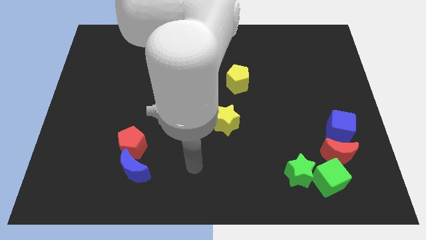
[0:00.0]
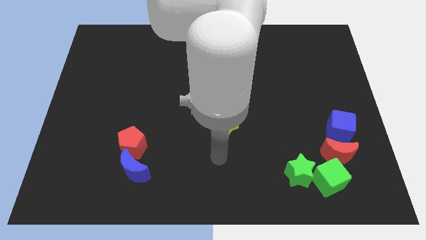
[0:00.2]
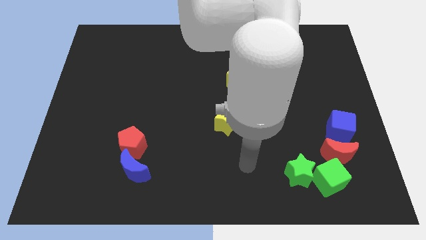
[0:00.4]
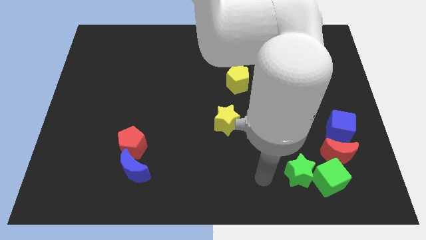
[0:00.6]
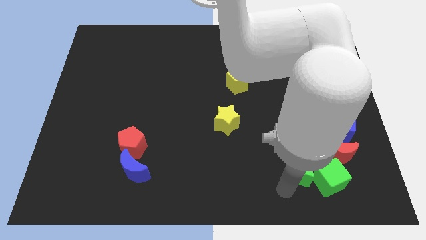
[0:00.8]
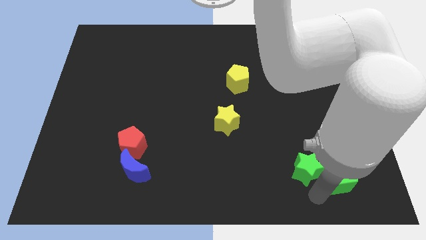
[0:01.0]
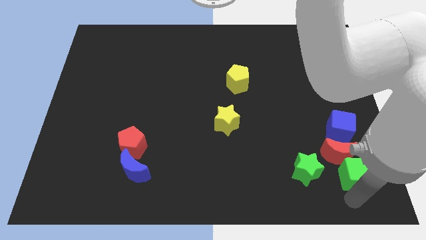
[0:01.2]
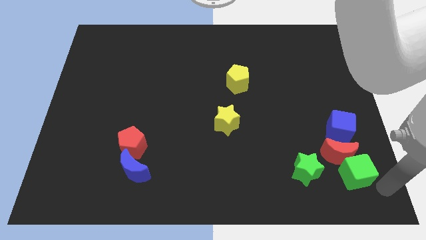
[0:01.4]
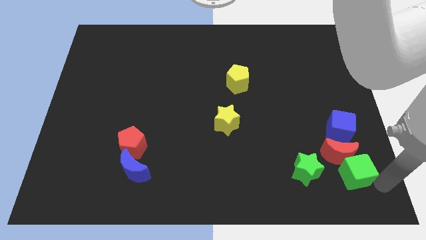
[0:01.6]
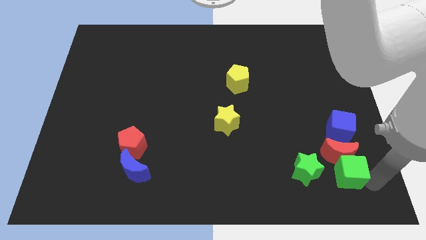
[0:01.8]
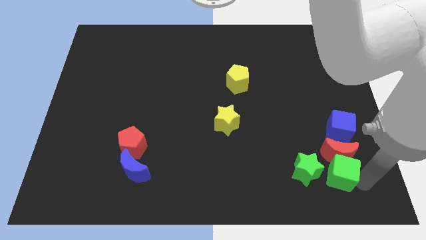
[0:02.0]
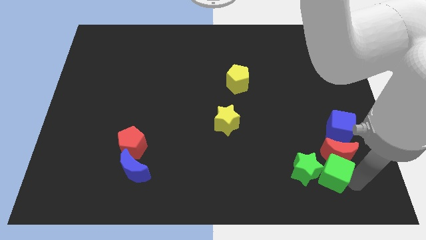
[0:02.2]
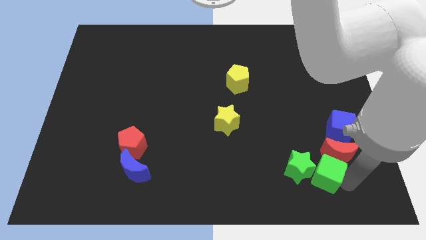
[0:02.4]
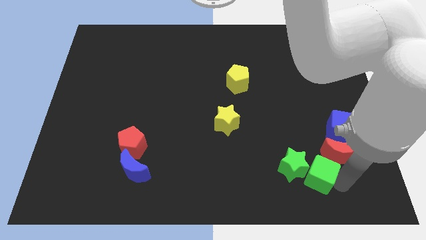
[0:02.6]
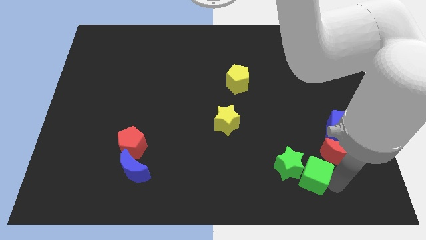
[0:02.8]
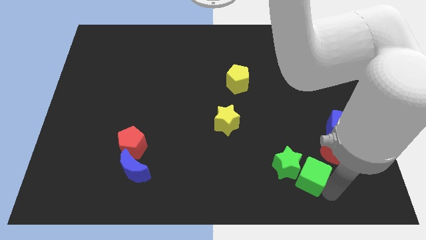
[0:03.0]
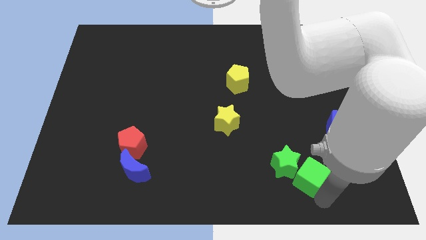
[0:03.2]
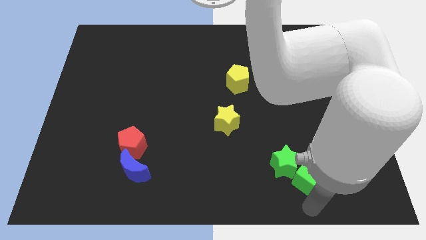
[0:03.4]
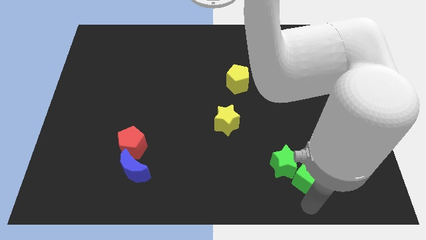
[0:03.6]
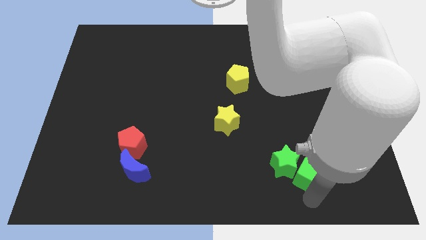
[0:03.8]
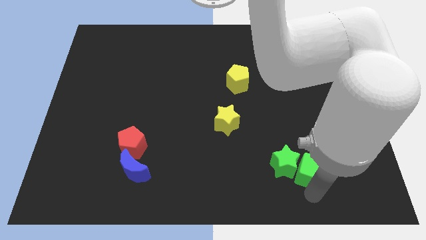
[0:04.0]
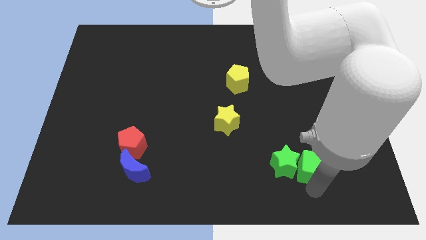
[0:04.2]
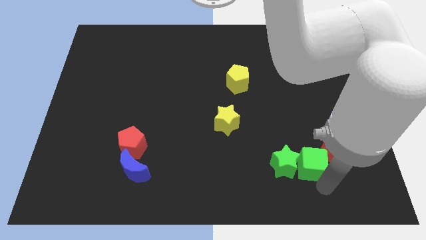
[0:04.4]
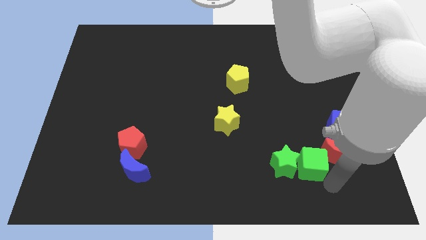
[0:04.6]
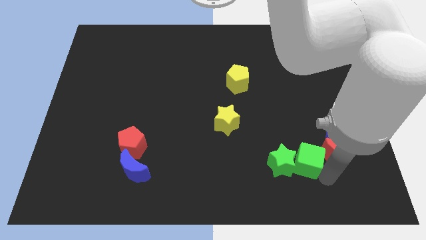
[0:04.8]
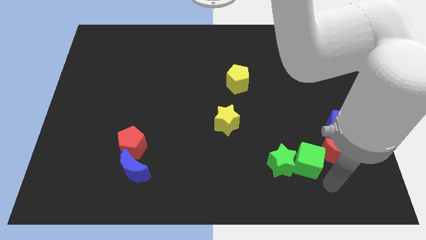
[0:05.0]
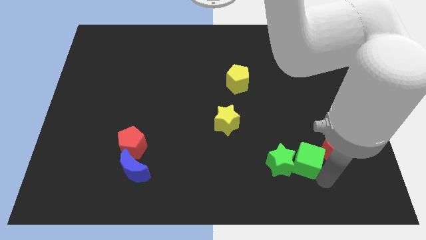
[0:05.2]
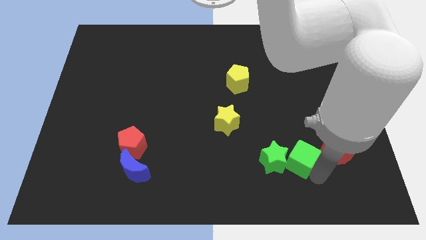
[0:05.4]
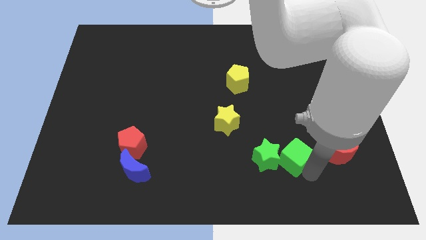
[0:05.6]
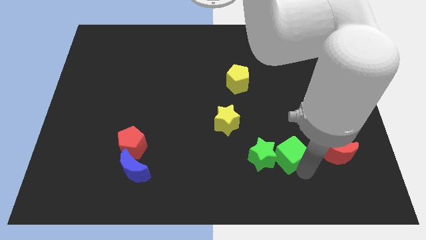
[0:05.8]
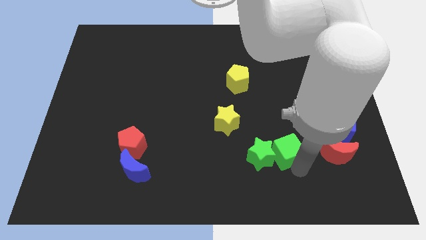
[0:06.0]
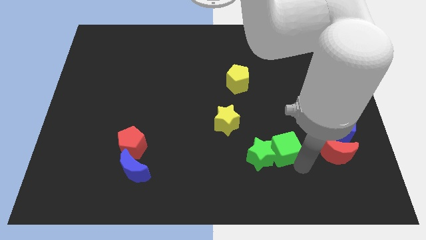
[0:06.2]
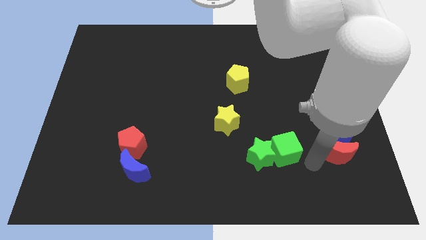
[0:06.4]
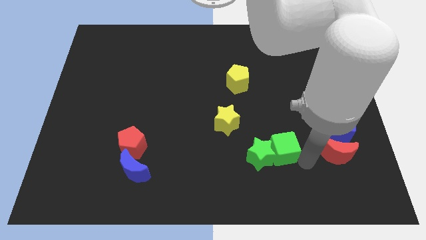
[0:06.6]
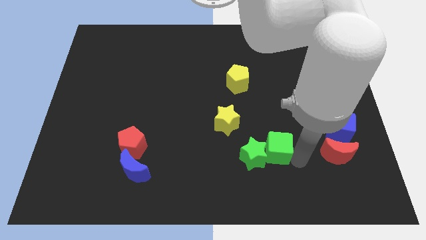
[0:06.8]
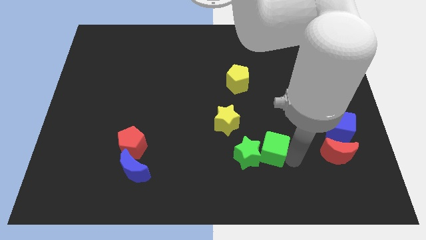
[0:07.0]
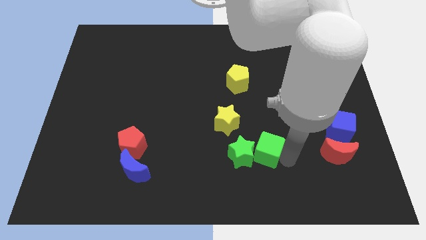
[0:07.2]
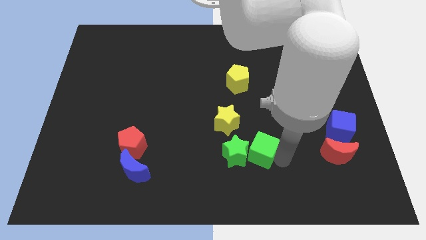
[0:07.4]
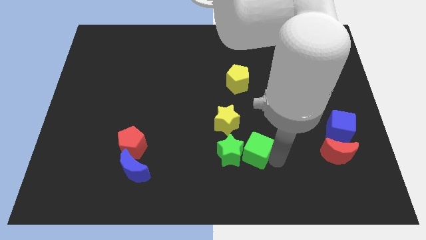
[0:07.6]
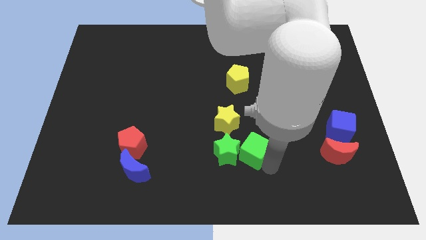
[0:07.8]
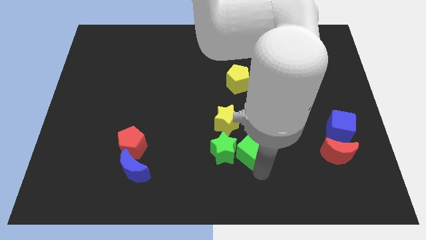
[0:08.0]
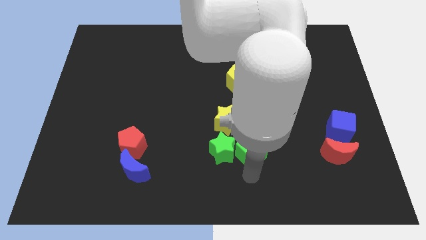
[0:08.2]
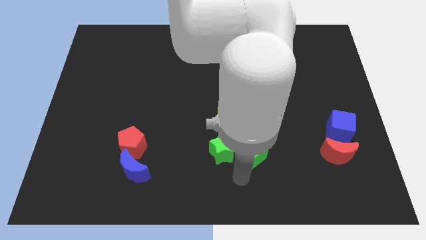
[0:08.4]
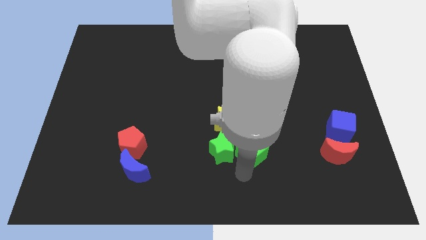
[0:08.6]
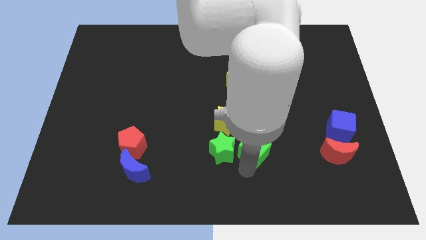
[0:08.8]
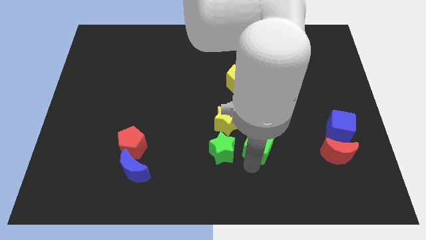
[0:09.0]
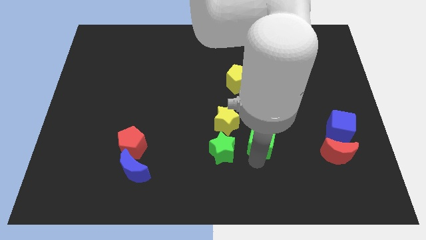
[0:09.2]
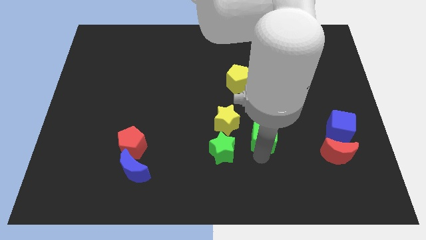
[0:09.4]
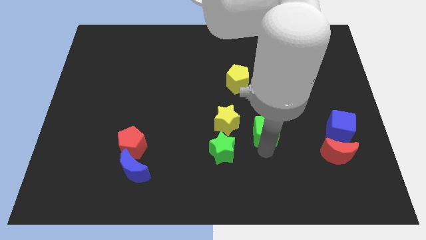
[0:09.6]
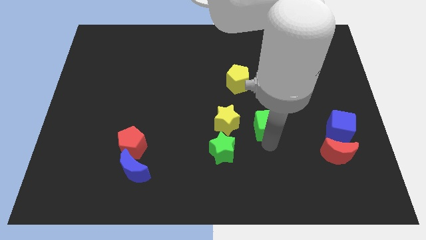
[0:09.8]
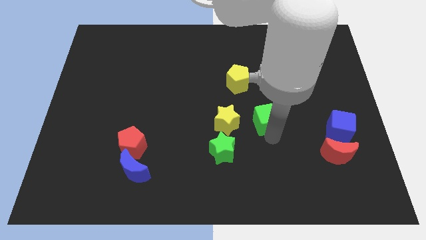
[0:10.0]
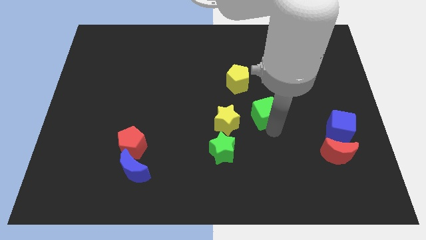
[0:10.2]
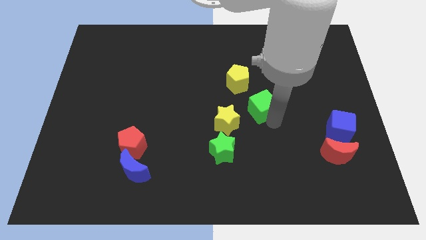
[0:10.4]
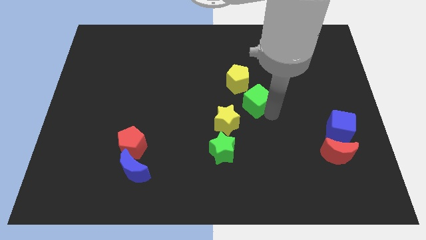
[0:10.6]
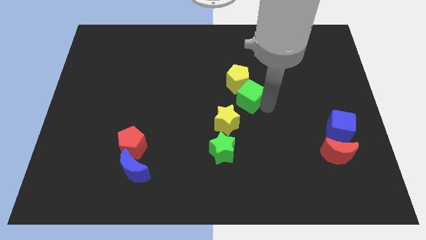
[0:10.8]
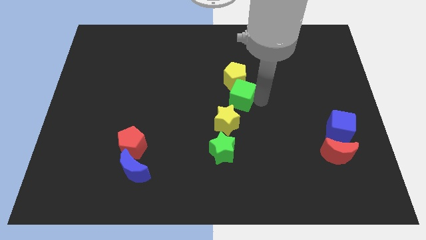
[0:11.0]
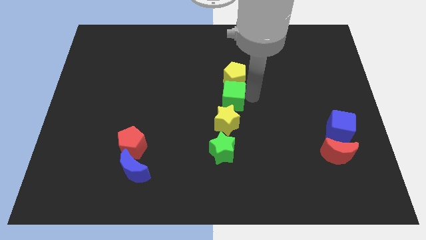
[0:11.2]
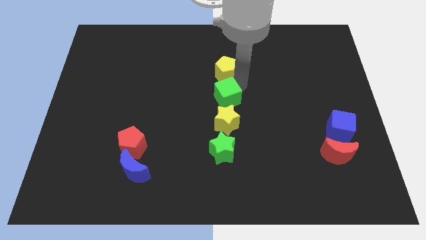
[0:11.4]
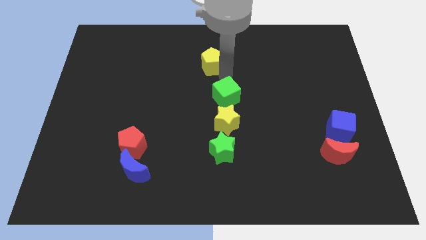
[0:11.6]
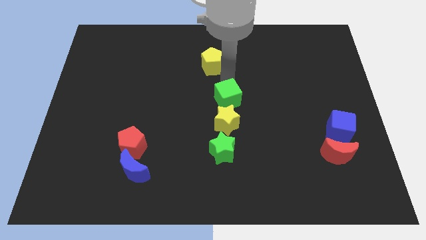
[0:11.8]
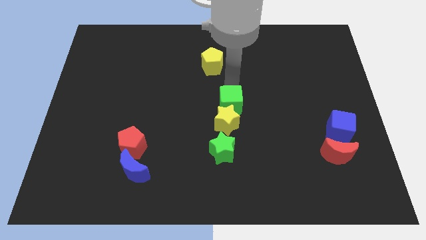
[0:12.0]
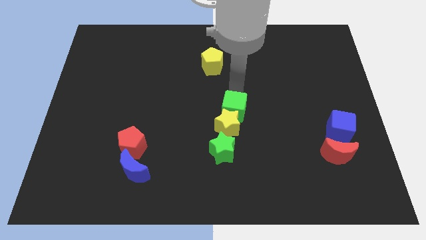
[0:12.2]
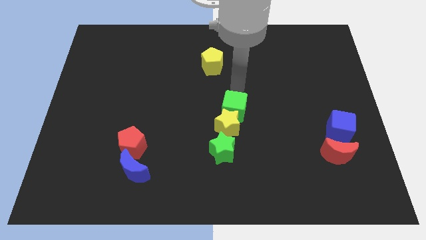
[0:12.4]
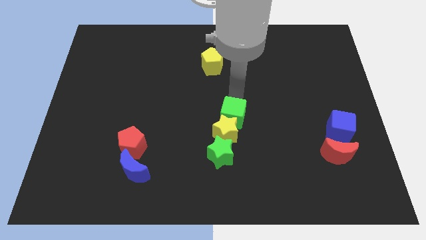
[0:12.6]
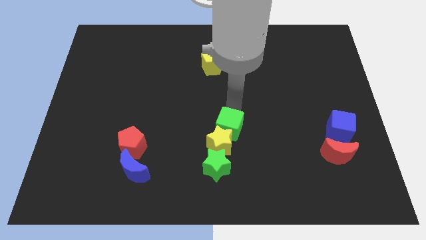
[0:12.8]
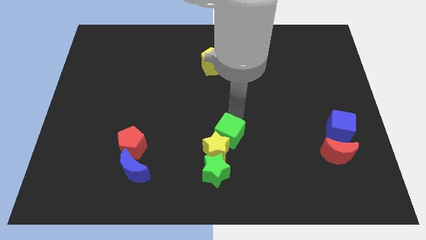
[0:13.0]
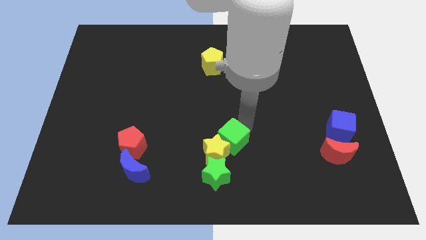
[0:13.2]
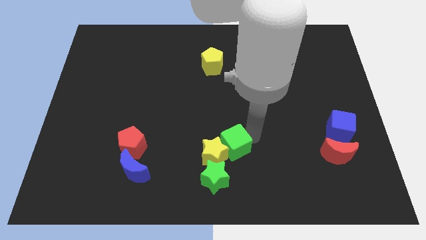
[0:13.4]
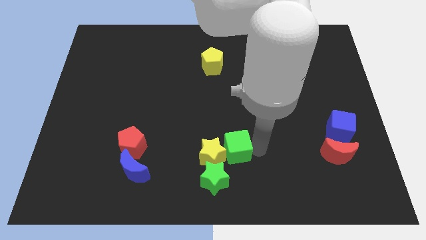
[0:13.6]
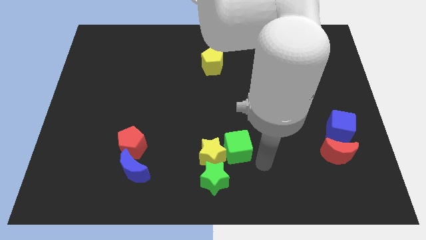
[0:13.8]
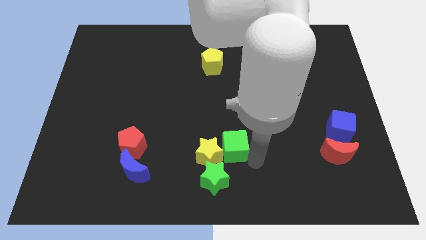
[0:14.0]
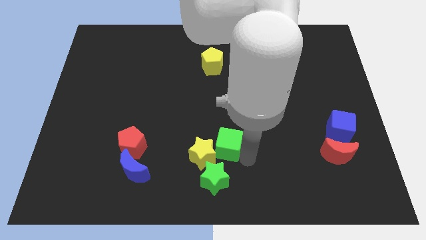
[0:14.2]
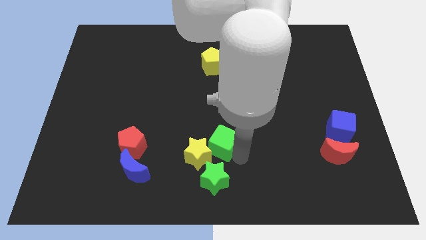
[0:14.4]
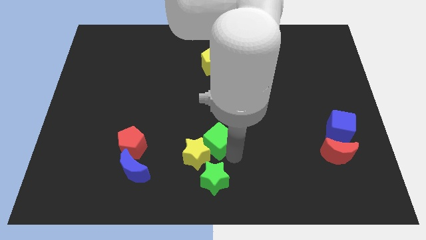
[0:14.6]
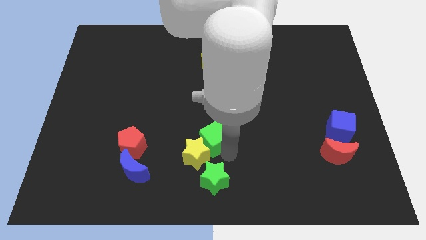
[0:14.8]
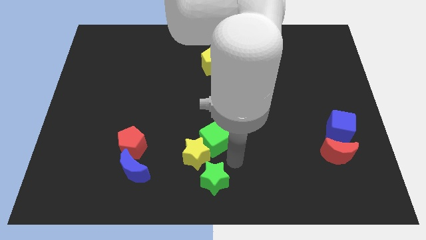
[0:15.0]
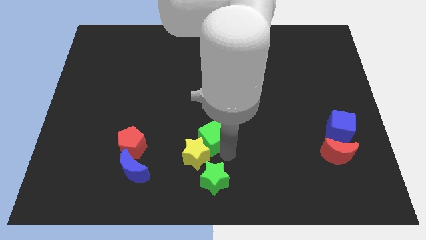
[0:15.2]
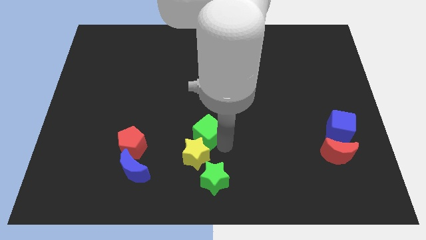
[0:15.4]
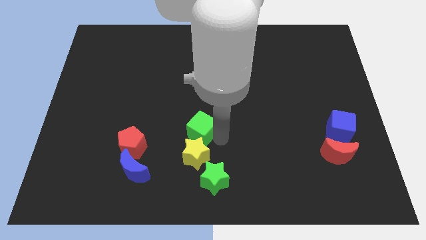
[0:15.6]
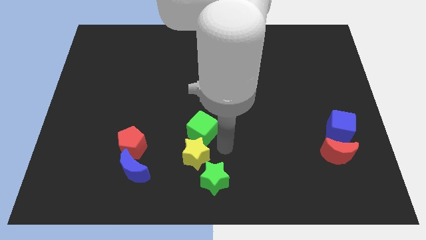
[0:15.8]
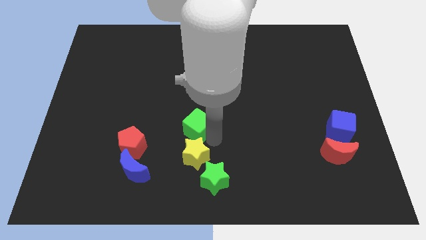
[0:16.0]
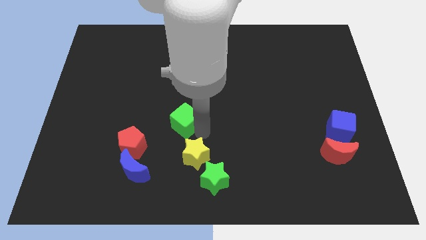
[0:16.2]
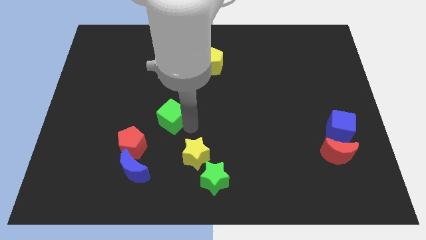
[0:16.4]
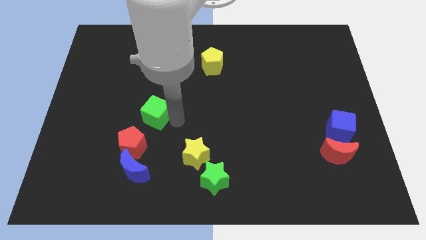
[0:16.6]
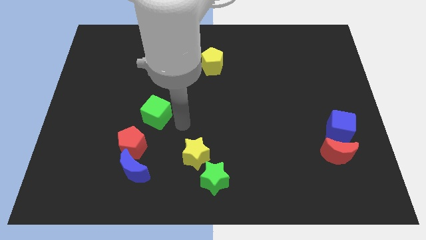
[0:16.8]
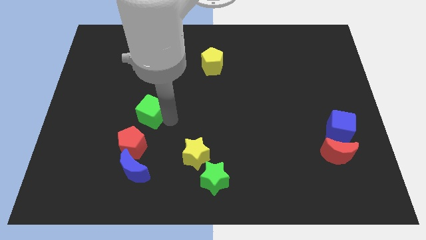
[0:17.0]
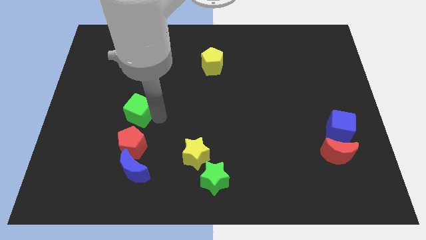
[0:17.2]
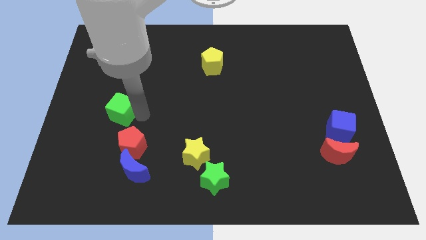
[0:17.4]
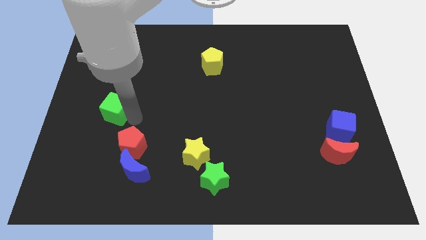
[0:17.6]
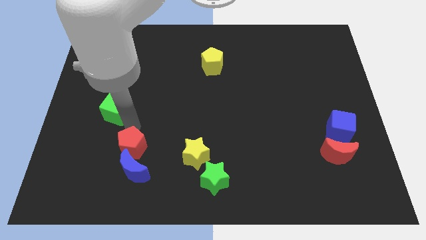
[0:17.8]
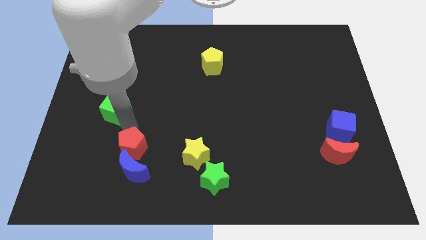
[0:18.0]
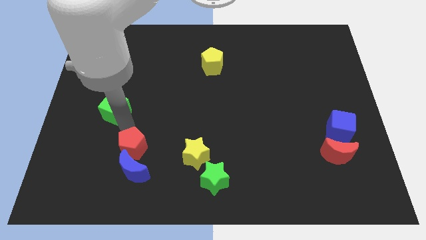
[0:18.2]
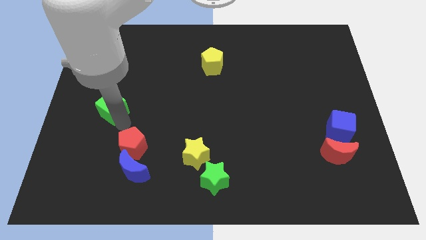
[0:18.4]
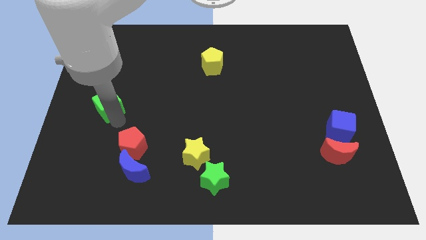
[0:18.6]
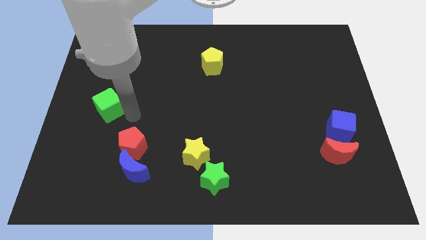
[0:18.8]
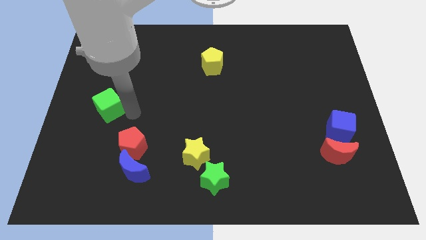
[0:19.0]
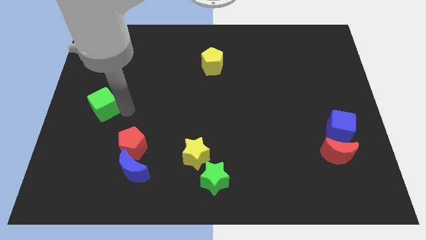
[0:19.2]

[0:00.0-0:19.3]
put the green cube to the left side
